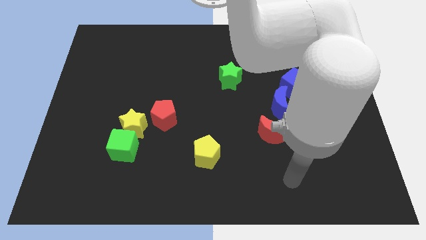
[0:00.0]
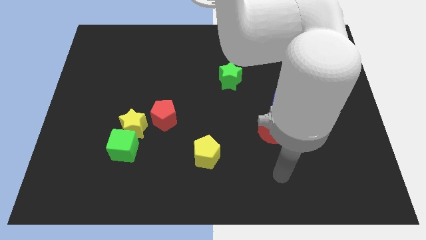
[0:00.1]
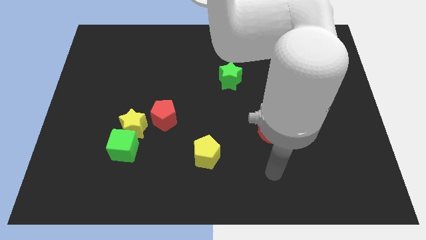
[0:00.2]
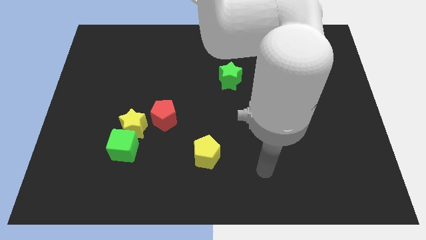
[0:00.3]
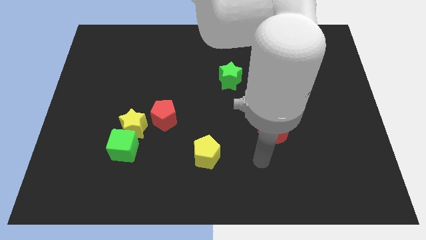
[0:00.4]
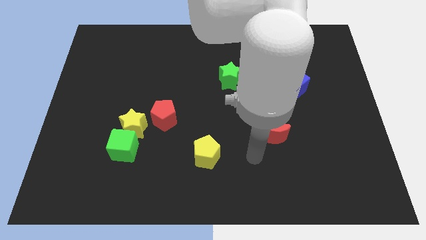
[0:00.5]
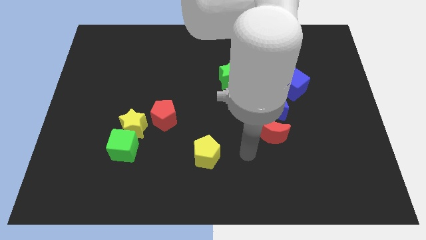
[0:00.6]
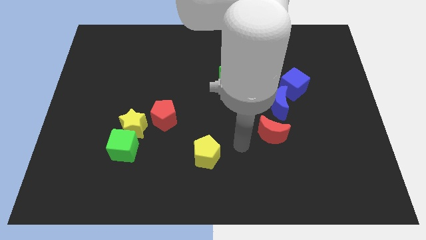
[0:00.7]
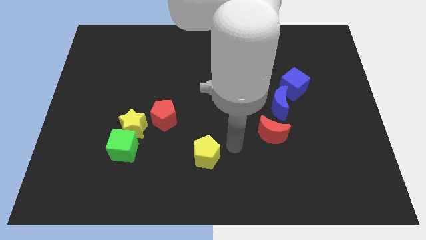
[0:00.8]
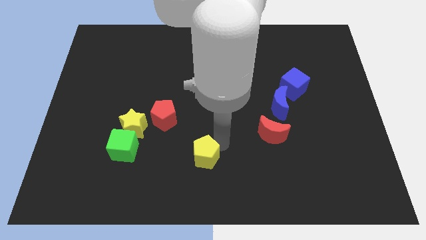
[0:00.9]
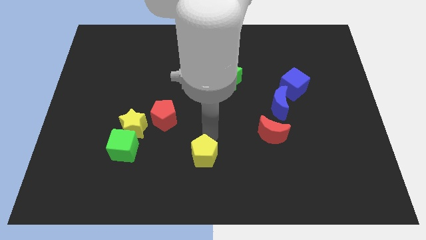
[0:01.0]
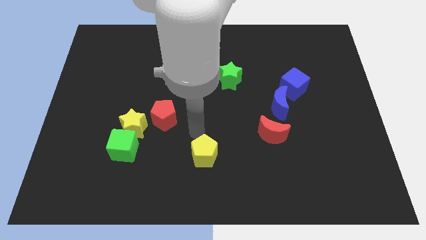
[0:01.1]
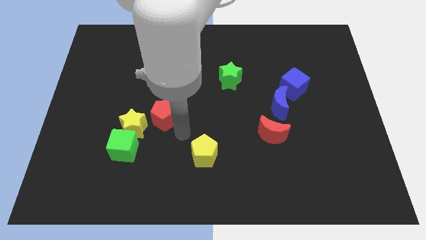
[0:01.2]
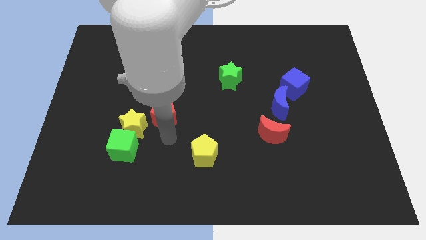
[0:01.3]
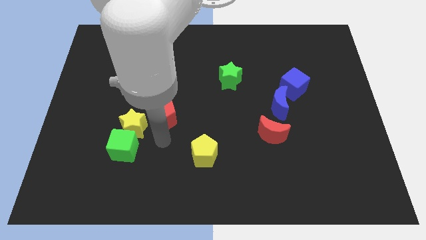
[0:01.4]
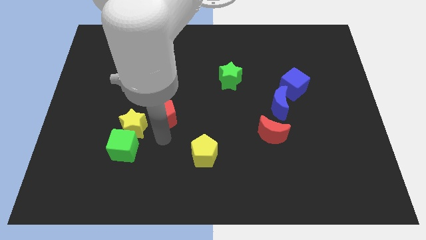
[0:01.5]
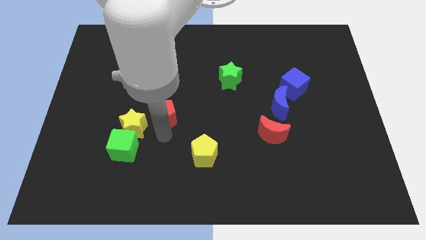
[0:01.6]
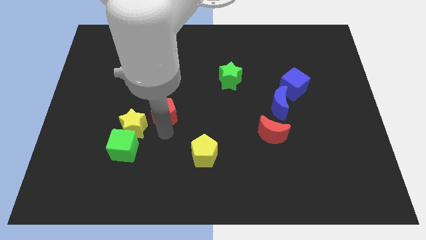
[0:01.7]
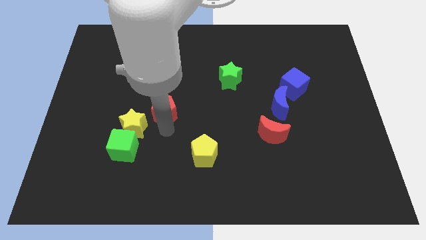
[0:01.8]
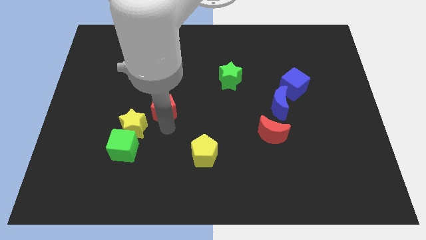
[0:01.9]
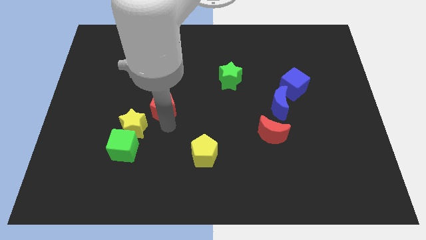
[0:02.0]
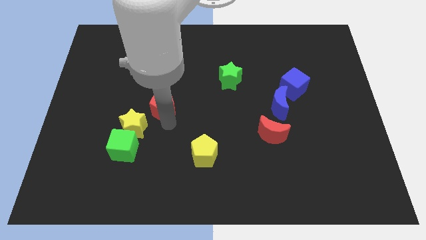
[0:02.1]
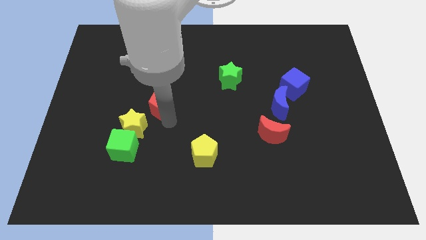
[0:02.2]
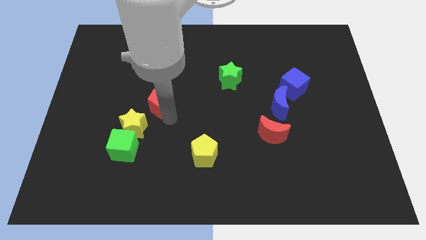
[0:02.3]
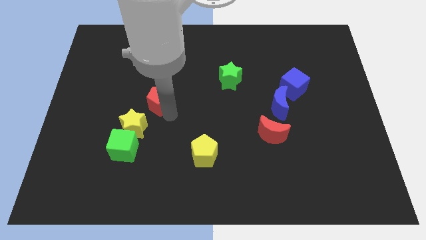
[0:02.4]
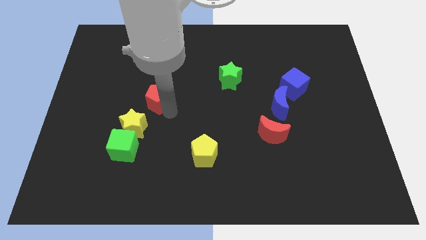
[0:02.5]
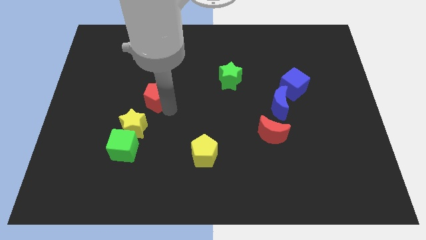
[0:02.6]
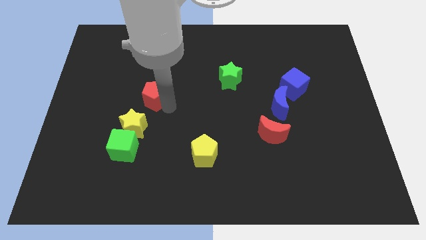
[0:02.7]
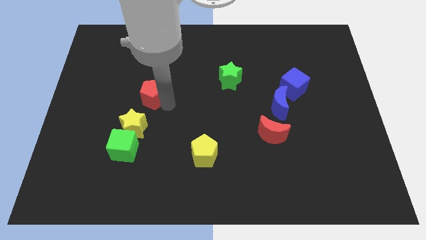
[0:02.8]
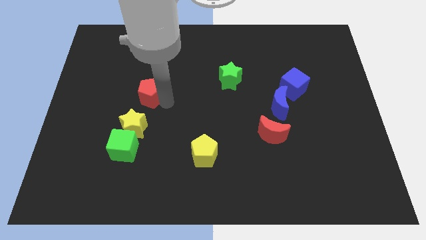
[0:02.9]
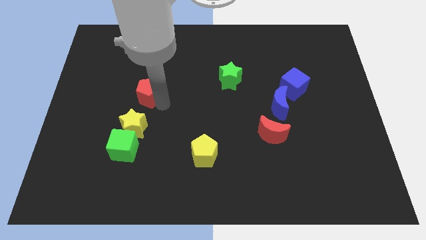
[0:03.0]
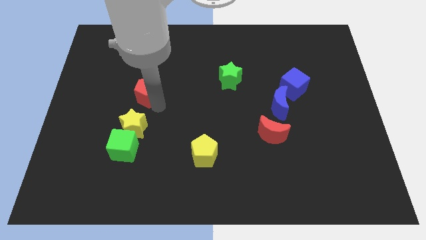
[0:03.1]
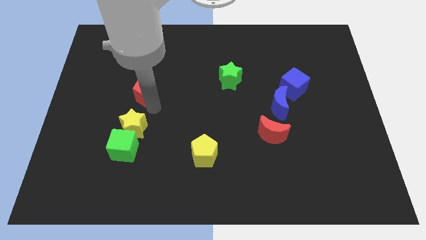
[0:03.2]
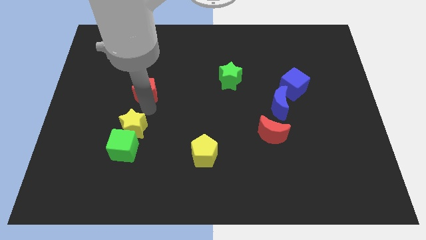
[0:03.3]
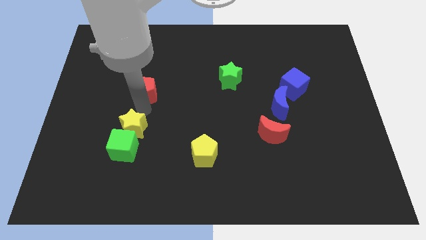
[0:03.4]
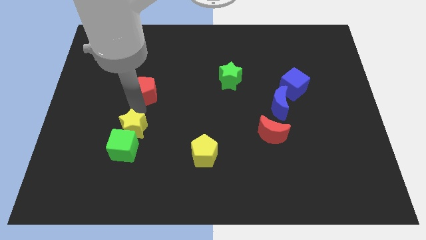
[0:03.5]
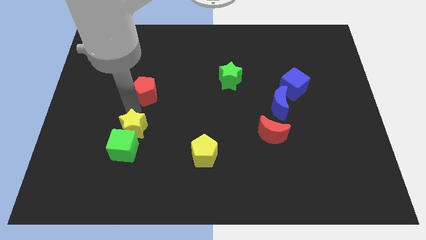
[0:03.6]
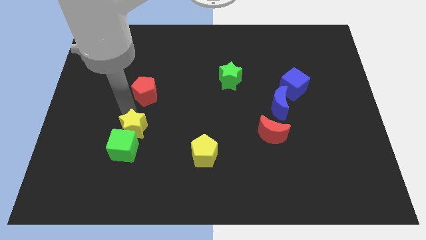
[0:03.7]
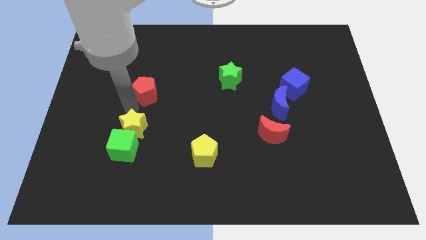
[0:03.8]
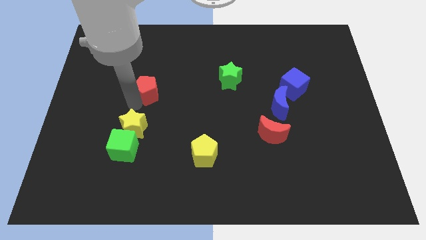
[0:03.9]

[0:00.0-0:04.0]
push the red pentagon upwards somewhat

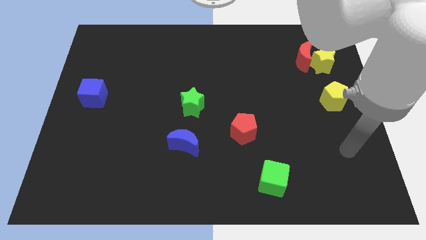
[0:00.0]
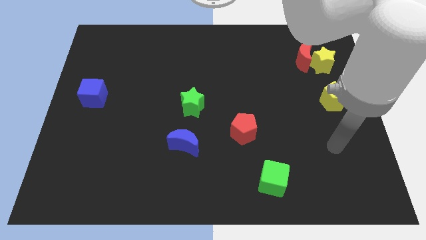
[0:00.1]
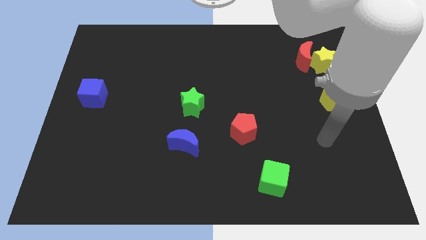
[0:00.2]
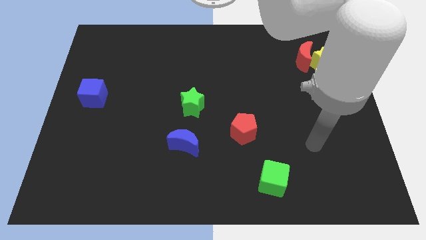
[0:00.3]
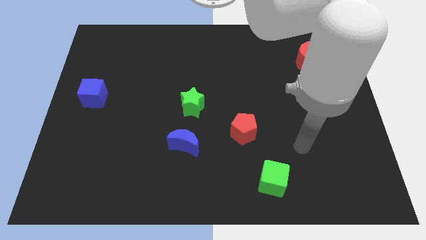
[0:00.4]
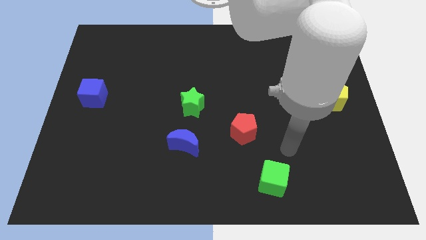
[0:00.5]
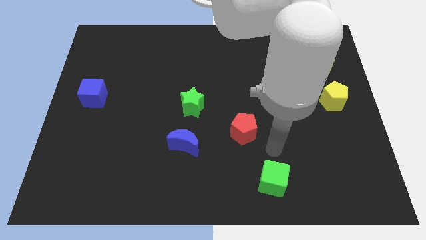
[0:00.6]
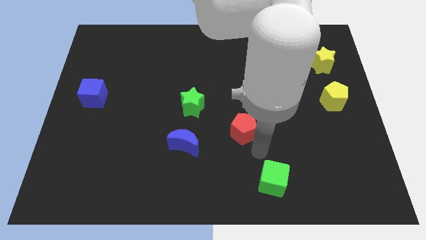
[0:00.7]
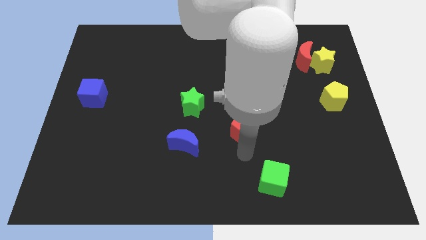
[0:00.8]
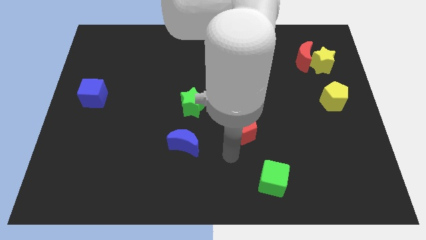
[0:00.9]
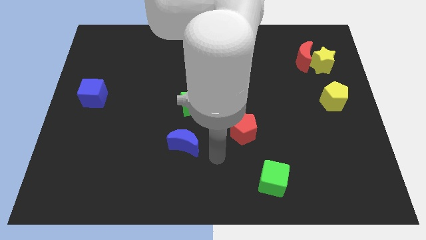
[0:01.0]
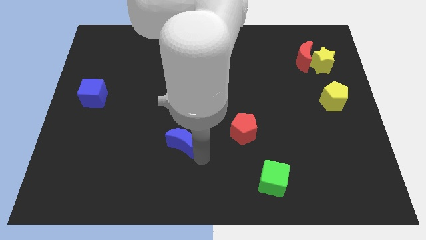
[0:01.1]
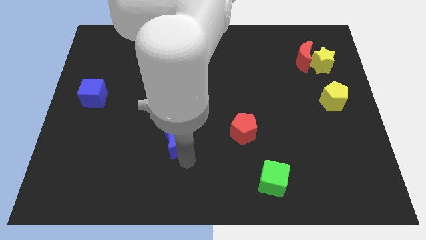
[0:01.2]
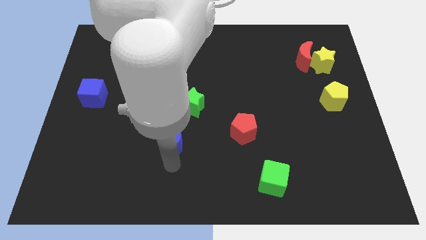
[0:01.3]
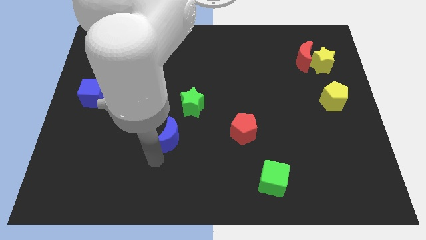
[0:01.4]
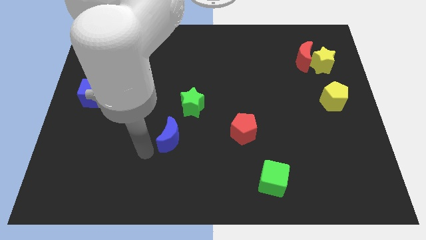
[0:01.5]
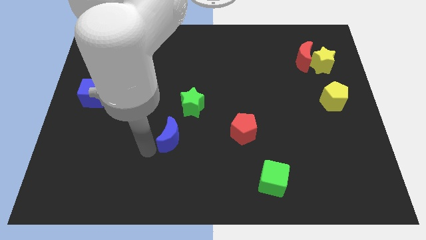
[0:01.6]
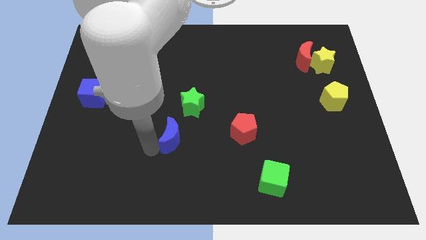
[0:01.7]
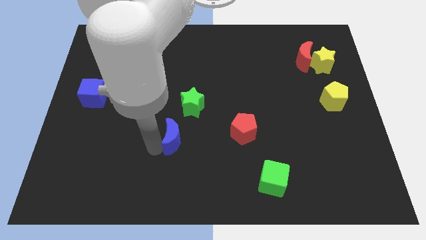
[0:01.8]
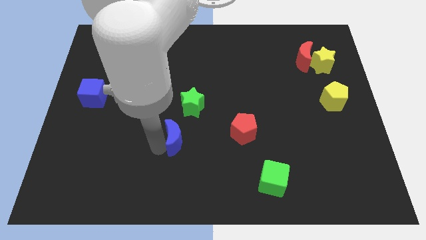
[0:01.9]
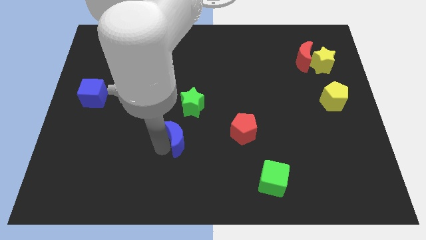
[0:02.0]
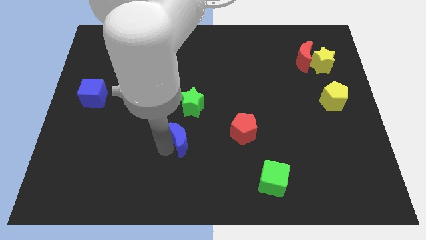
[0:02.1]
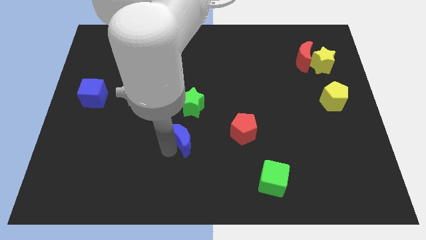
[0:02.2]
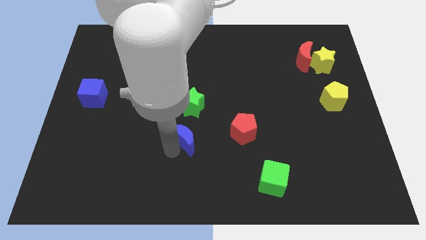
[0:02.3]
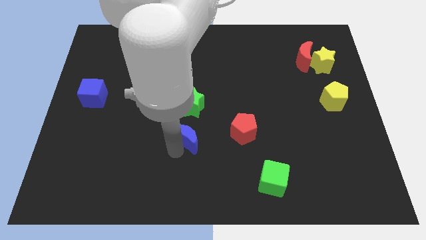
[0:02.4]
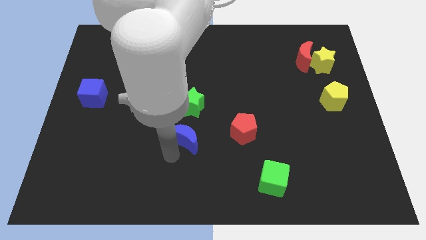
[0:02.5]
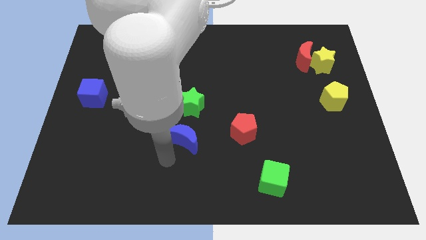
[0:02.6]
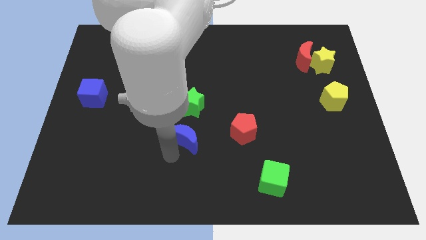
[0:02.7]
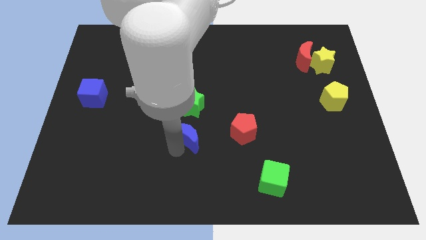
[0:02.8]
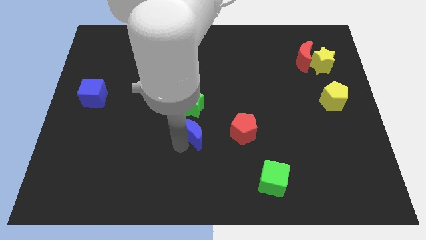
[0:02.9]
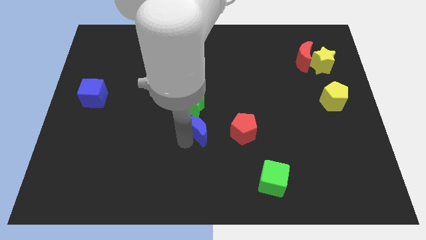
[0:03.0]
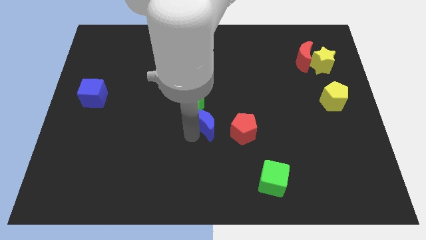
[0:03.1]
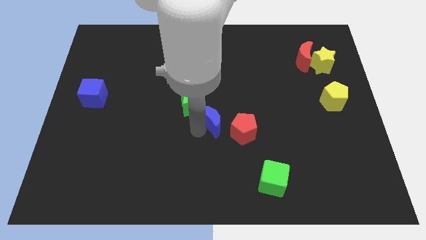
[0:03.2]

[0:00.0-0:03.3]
slightly slide the blue moon diagonally upwards and right

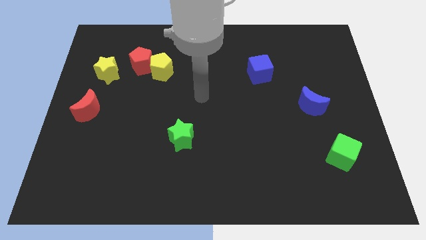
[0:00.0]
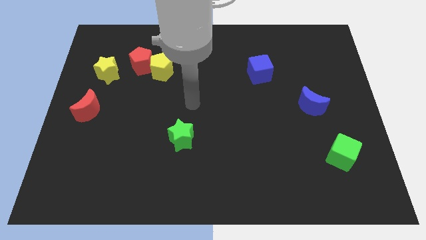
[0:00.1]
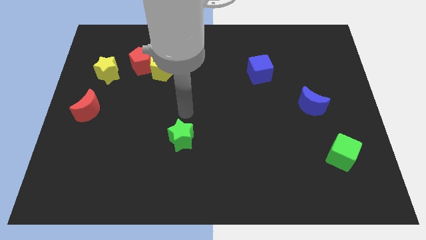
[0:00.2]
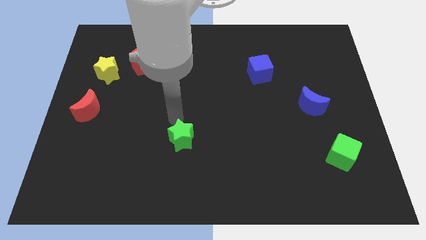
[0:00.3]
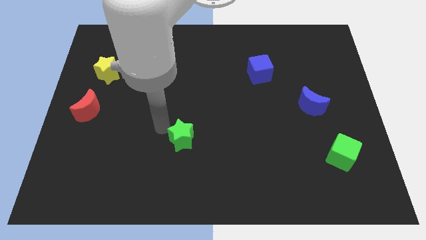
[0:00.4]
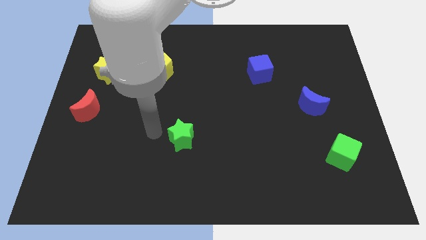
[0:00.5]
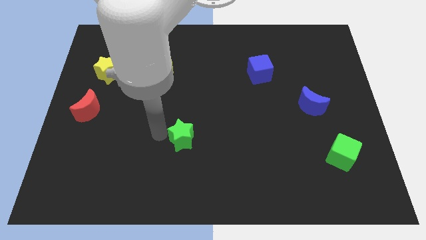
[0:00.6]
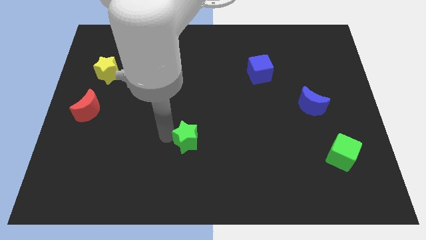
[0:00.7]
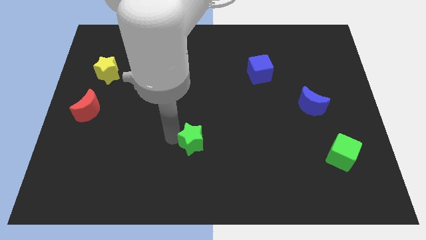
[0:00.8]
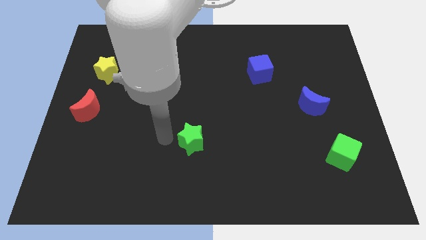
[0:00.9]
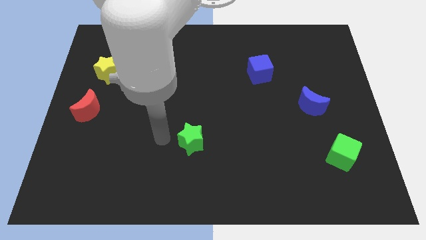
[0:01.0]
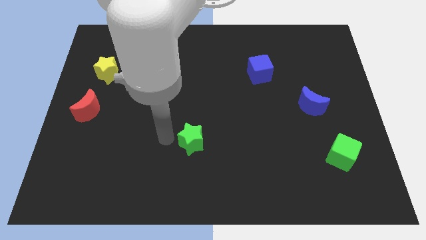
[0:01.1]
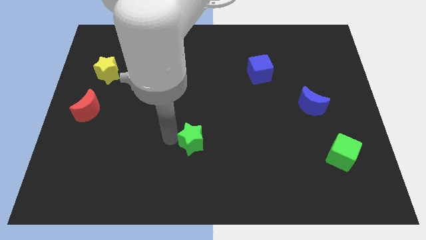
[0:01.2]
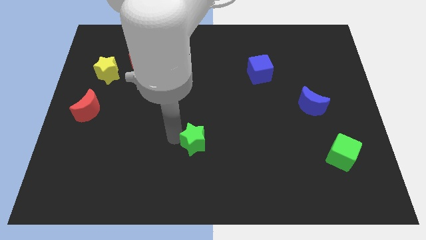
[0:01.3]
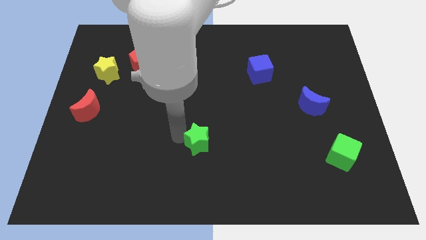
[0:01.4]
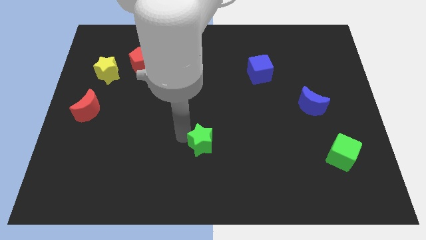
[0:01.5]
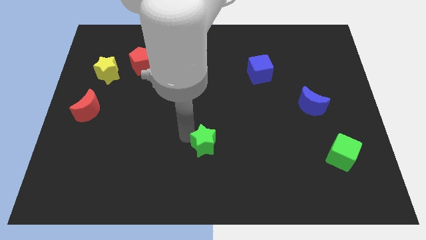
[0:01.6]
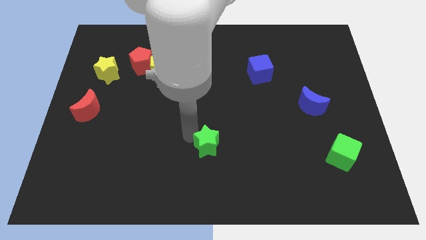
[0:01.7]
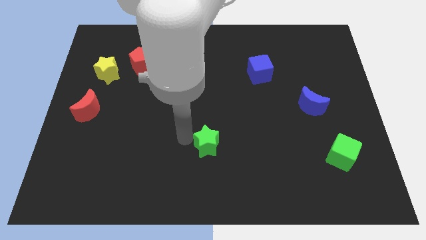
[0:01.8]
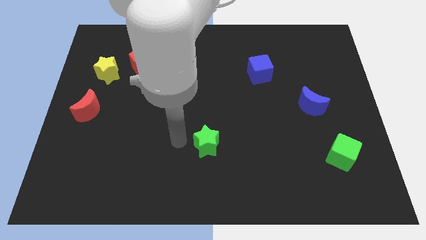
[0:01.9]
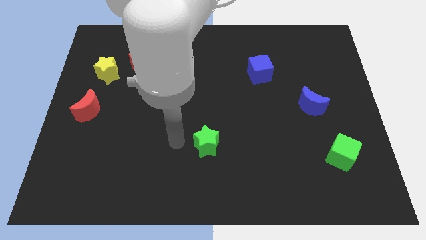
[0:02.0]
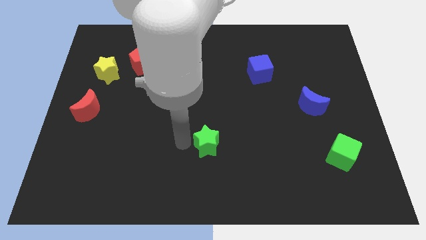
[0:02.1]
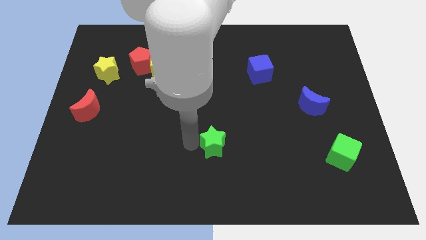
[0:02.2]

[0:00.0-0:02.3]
push the green star slightly to the right
